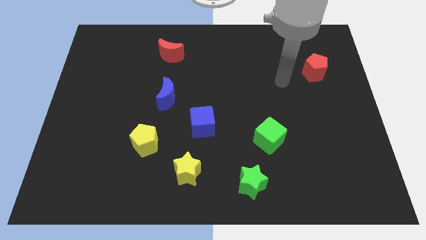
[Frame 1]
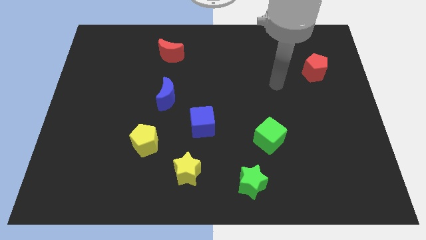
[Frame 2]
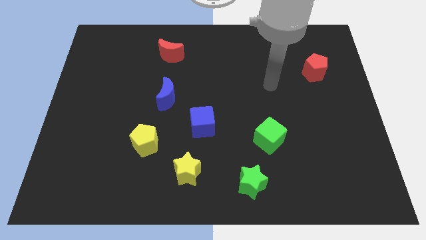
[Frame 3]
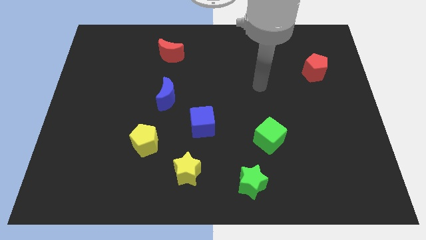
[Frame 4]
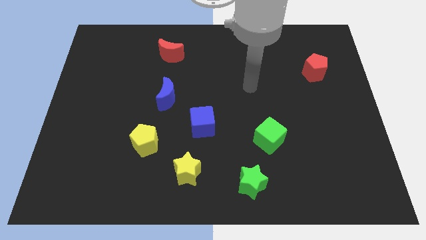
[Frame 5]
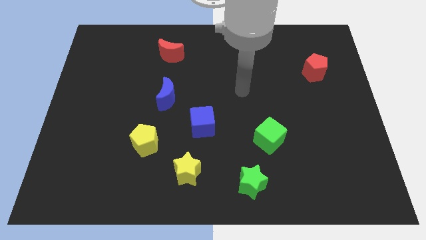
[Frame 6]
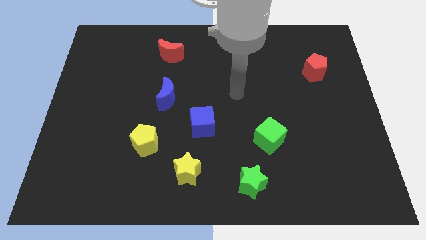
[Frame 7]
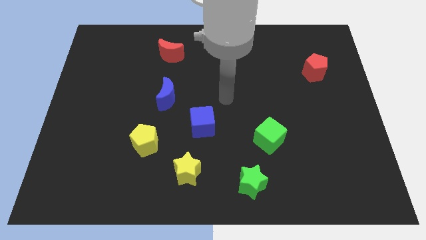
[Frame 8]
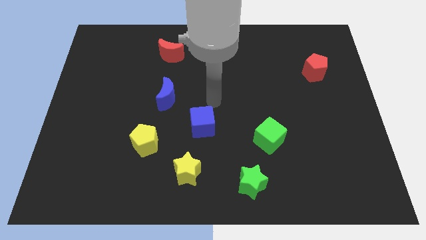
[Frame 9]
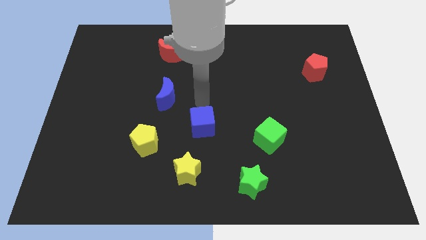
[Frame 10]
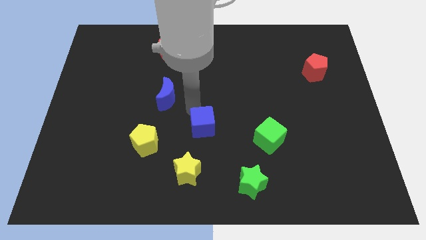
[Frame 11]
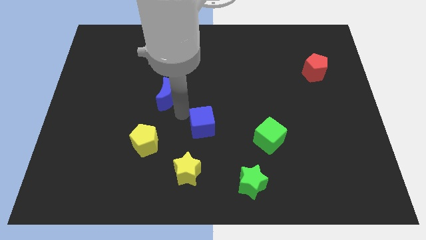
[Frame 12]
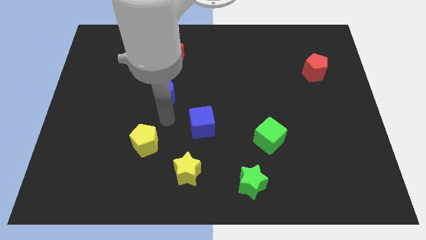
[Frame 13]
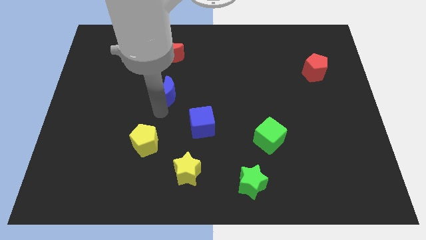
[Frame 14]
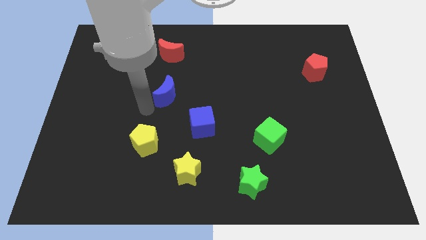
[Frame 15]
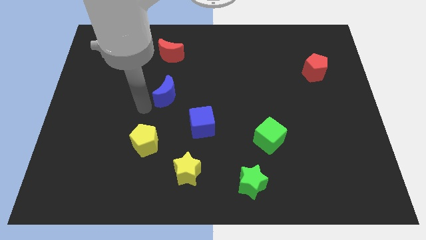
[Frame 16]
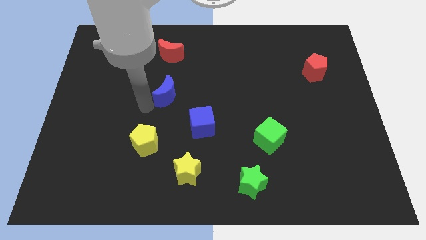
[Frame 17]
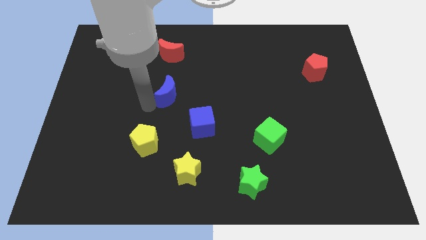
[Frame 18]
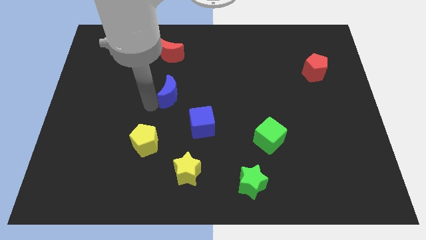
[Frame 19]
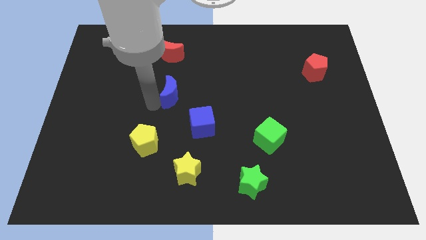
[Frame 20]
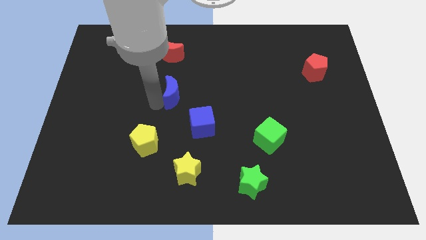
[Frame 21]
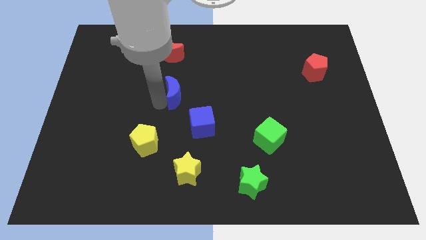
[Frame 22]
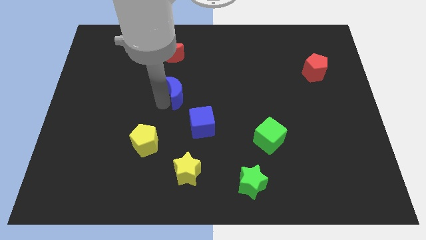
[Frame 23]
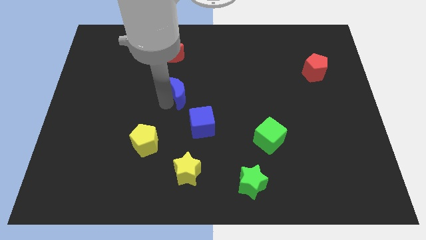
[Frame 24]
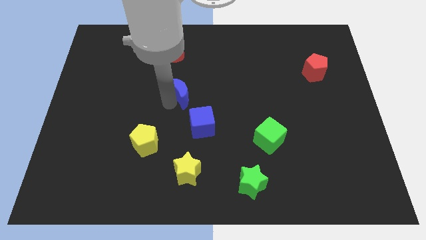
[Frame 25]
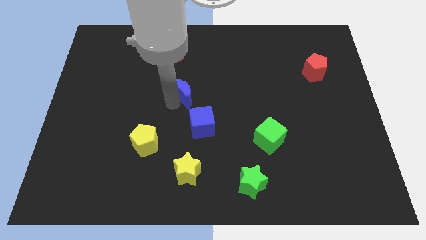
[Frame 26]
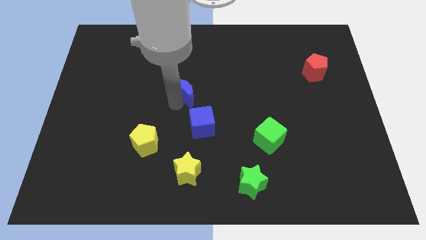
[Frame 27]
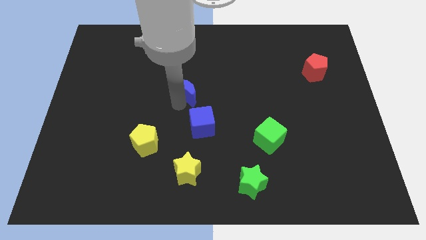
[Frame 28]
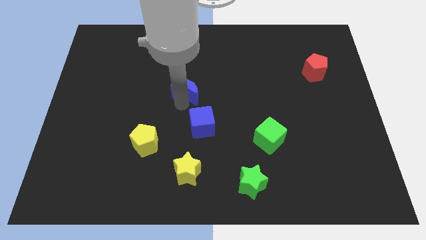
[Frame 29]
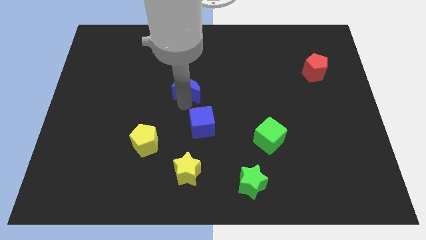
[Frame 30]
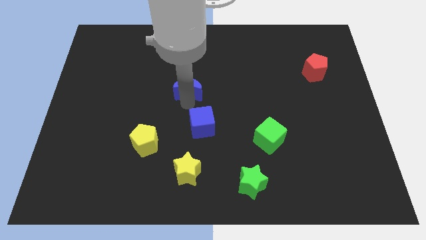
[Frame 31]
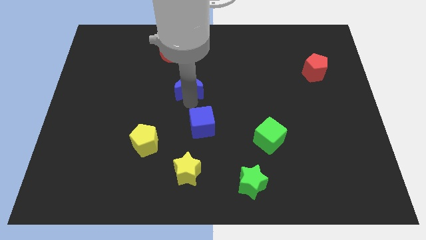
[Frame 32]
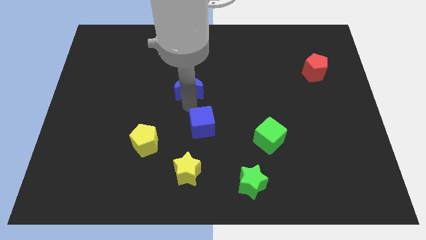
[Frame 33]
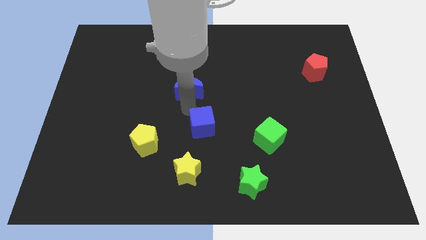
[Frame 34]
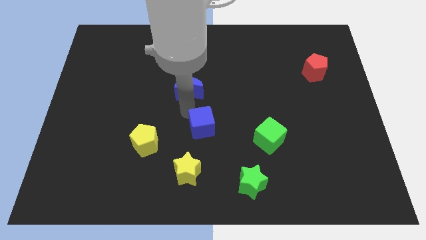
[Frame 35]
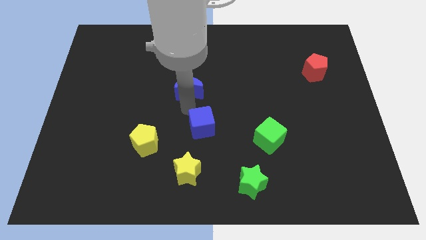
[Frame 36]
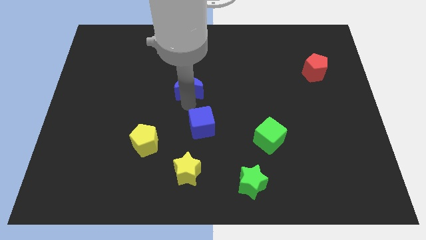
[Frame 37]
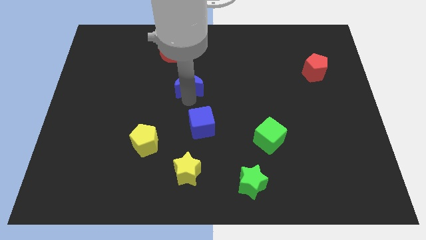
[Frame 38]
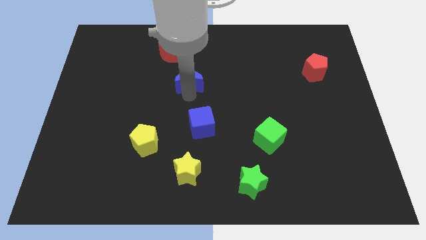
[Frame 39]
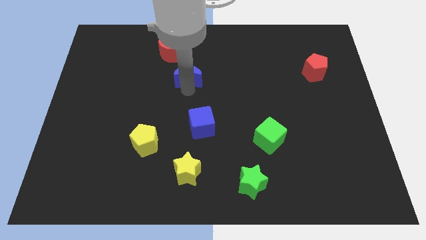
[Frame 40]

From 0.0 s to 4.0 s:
slightly slide the blue moon upwards and right

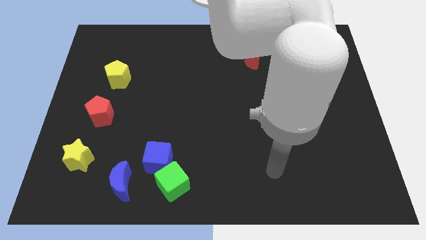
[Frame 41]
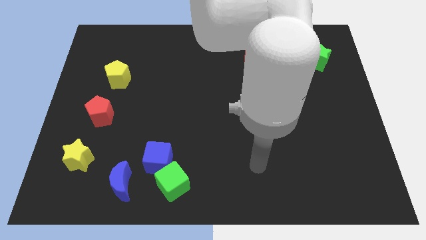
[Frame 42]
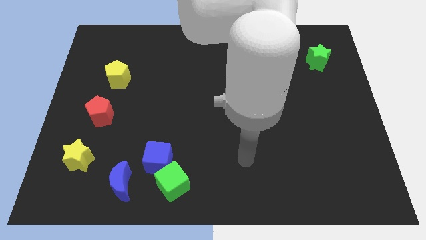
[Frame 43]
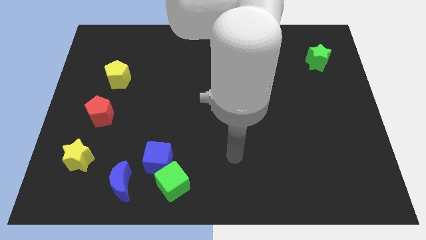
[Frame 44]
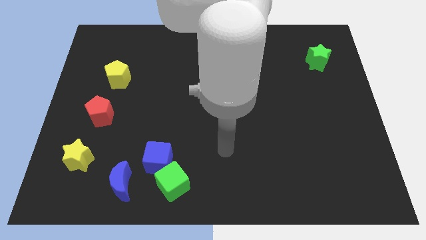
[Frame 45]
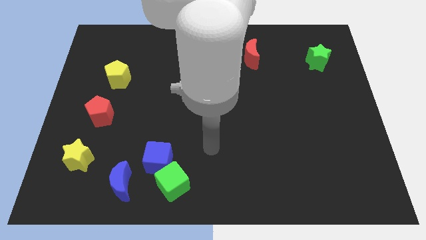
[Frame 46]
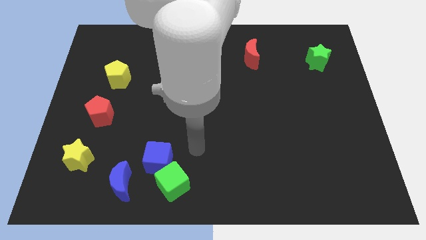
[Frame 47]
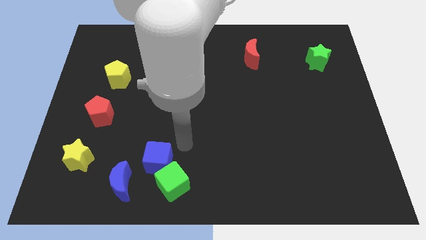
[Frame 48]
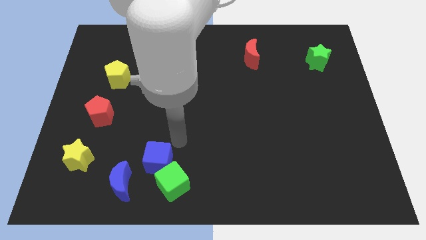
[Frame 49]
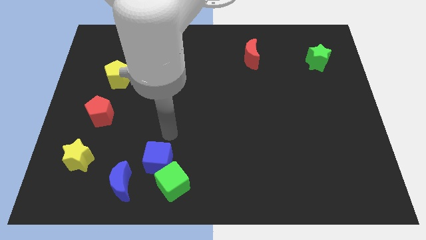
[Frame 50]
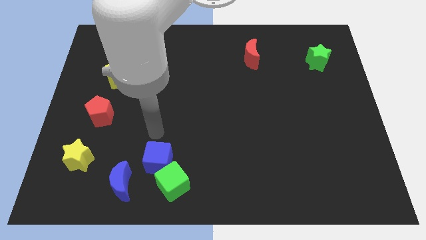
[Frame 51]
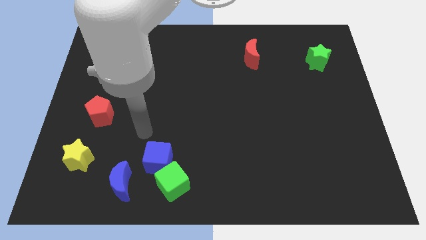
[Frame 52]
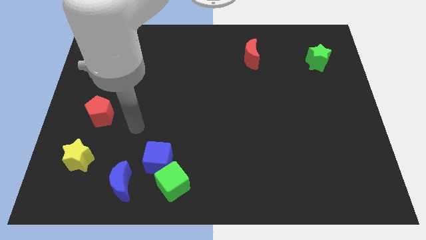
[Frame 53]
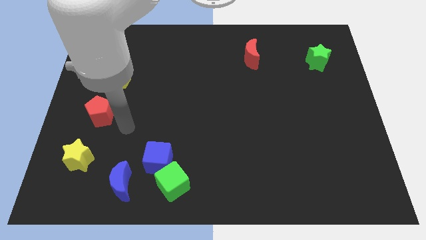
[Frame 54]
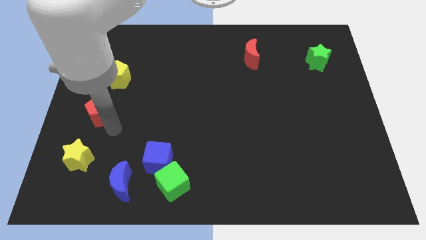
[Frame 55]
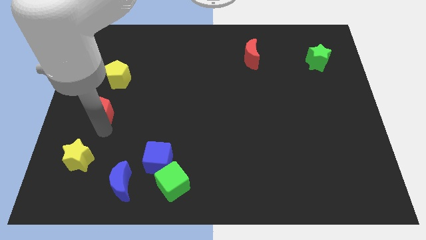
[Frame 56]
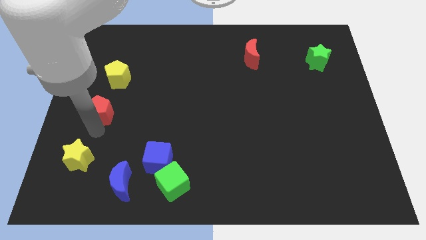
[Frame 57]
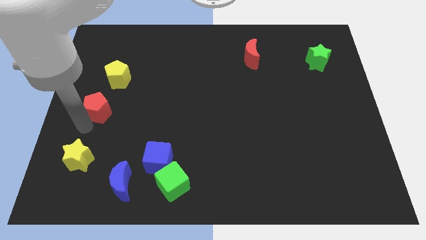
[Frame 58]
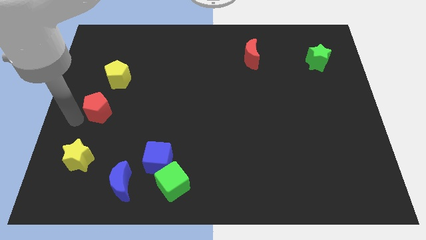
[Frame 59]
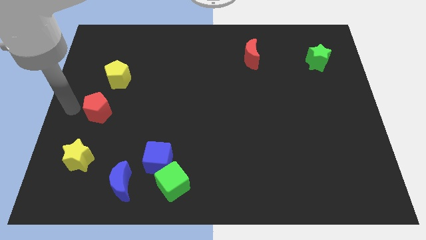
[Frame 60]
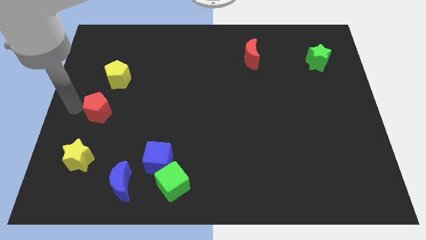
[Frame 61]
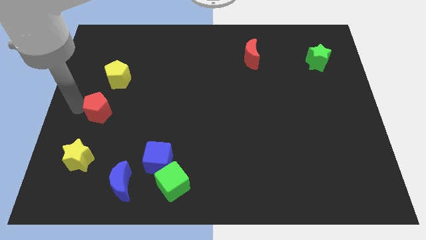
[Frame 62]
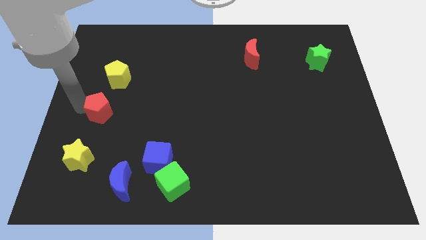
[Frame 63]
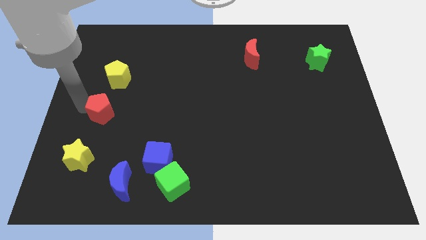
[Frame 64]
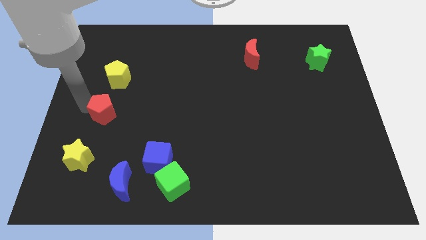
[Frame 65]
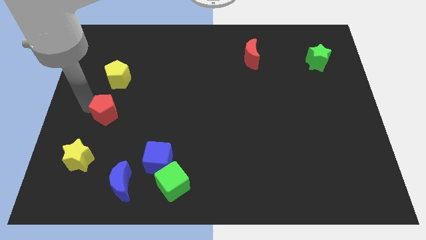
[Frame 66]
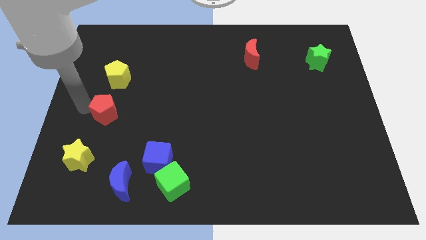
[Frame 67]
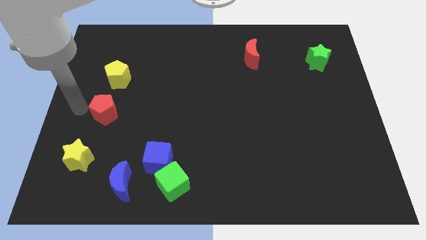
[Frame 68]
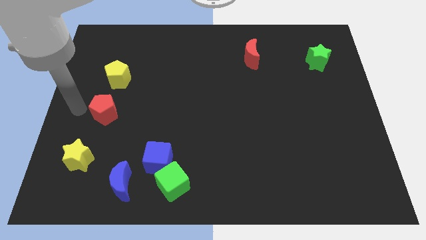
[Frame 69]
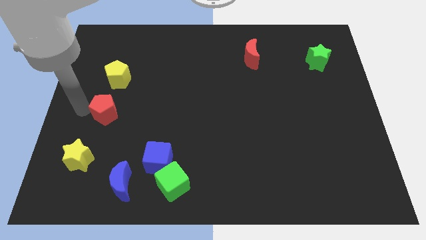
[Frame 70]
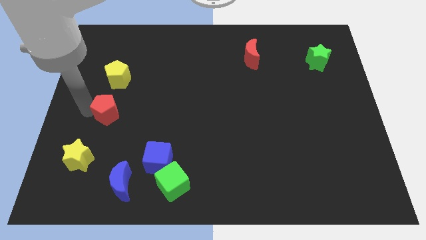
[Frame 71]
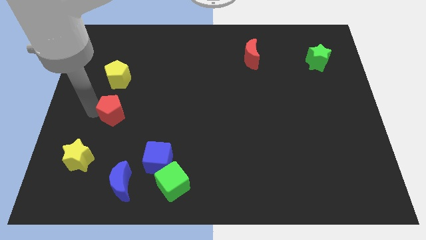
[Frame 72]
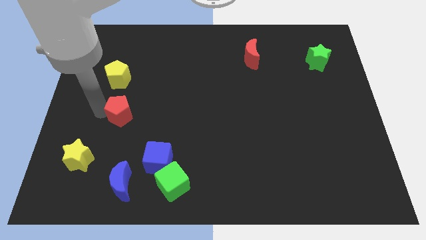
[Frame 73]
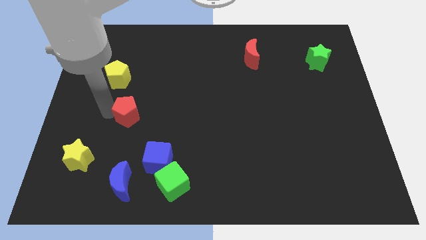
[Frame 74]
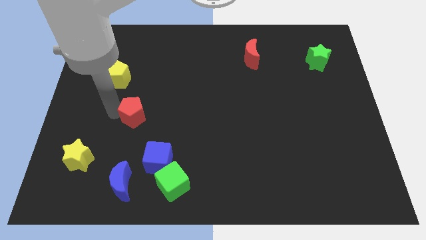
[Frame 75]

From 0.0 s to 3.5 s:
slightly push the red pentagon to the right

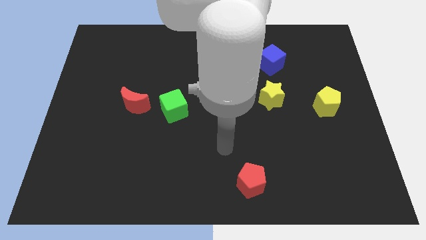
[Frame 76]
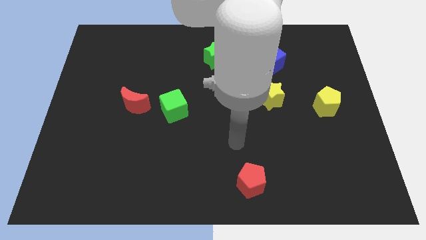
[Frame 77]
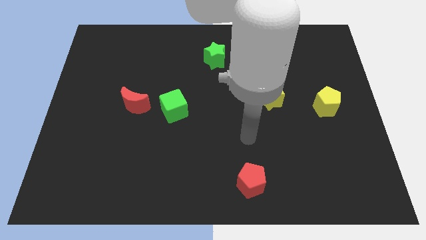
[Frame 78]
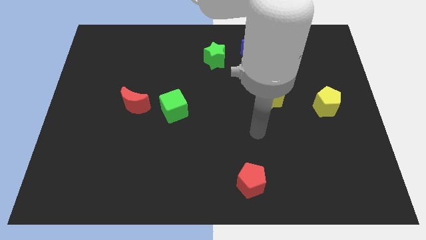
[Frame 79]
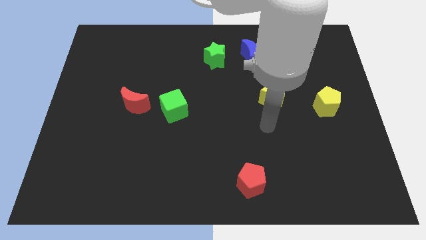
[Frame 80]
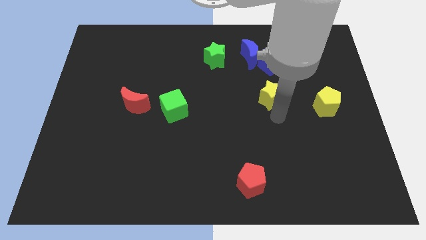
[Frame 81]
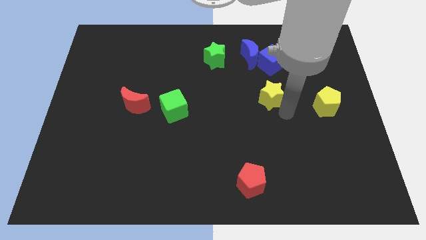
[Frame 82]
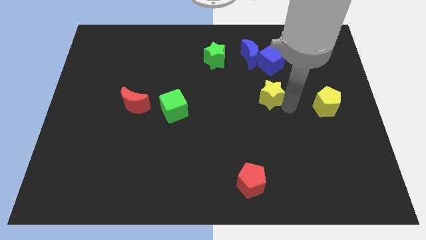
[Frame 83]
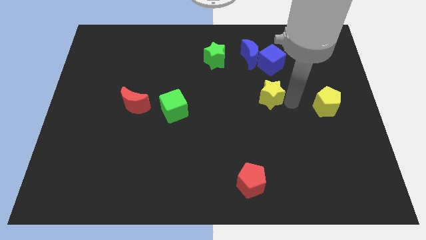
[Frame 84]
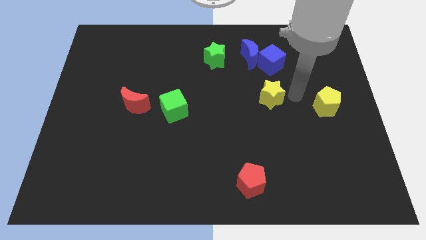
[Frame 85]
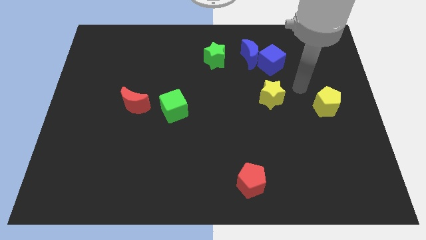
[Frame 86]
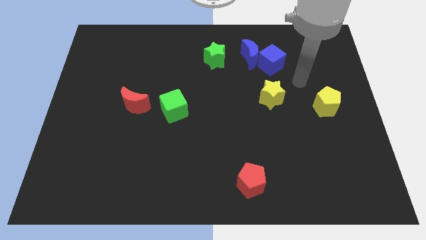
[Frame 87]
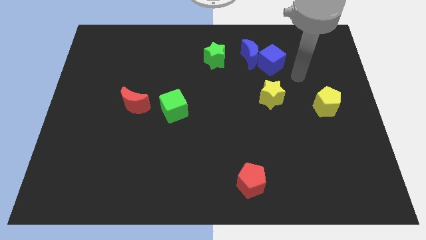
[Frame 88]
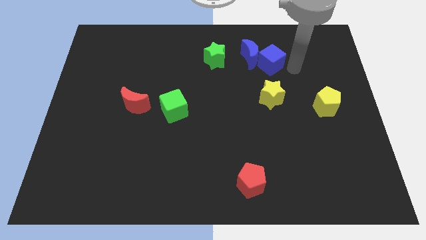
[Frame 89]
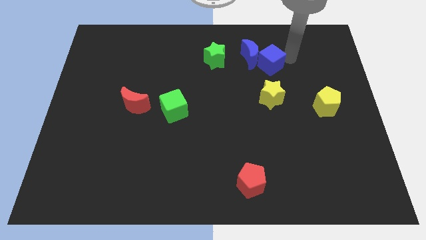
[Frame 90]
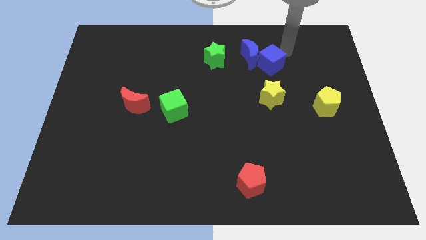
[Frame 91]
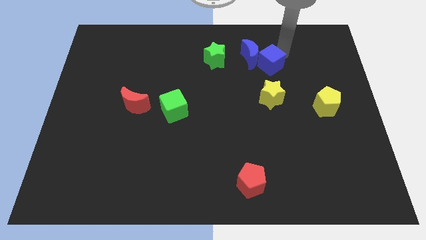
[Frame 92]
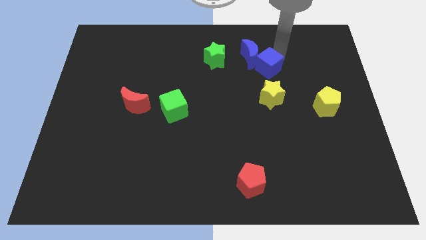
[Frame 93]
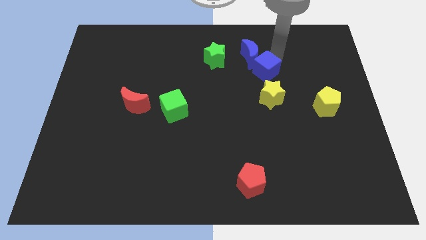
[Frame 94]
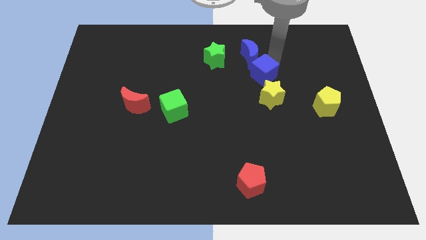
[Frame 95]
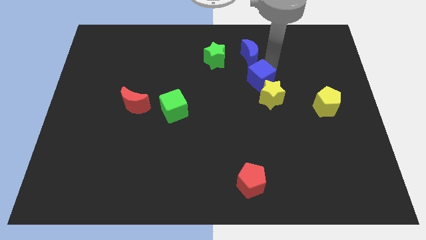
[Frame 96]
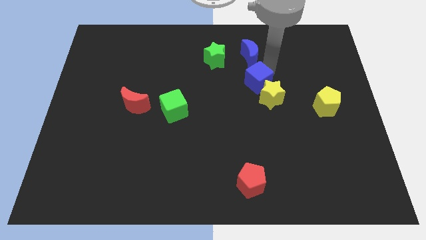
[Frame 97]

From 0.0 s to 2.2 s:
slightly move the blue cube down and then to the left
